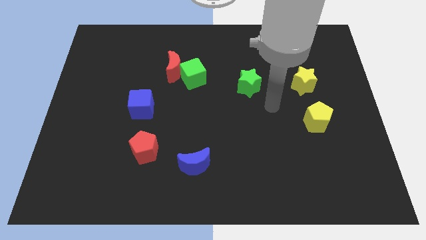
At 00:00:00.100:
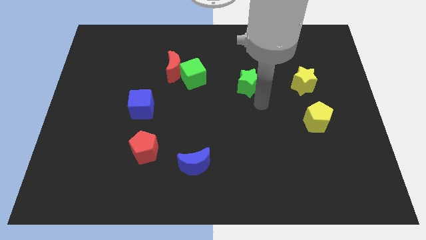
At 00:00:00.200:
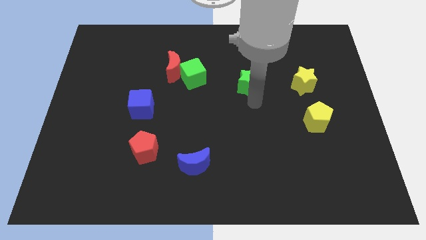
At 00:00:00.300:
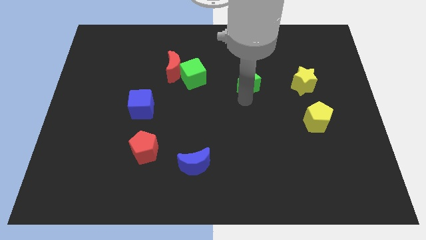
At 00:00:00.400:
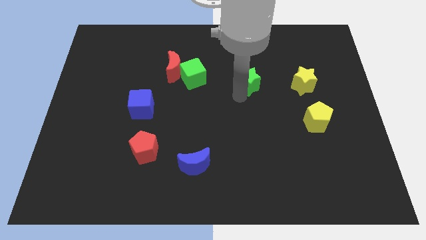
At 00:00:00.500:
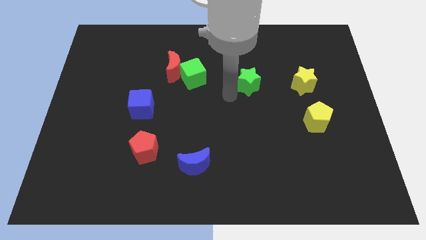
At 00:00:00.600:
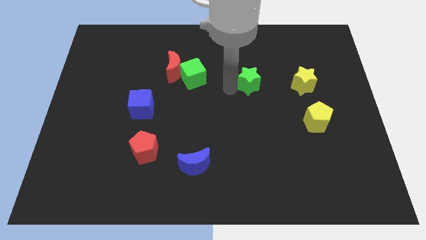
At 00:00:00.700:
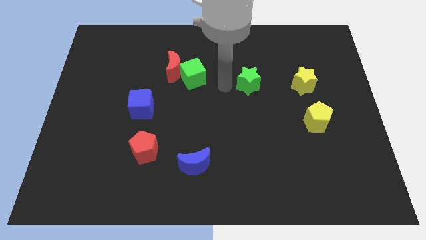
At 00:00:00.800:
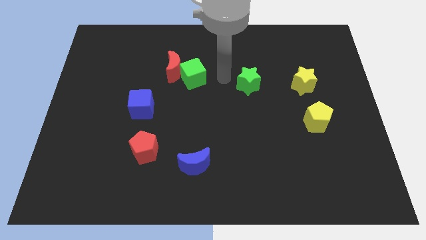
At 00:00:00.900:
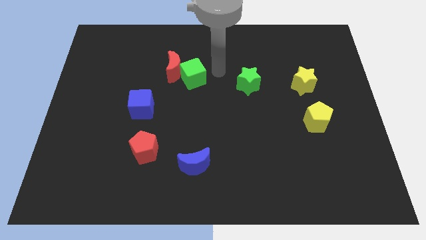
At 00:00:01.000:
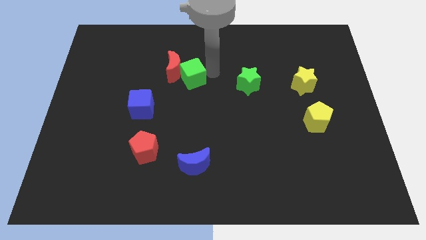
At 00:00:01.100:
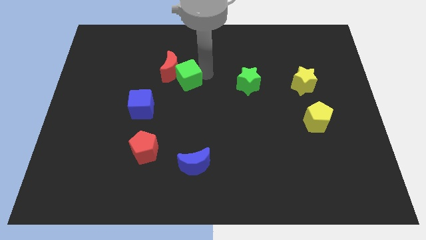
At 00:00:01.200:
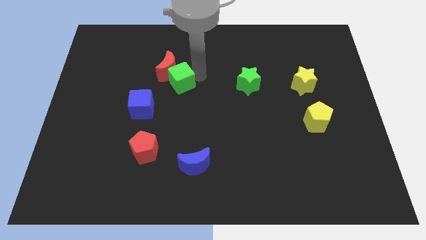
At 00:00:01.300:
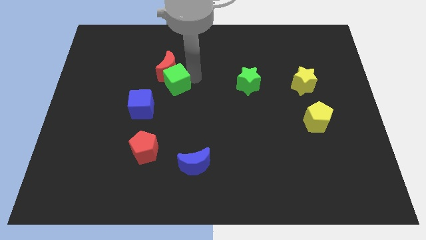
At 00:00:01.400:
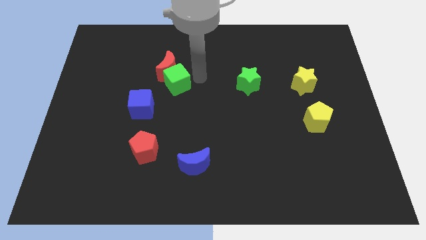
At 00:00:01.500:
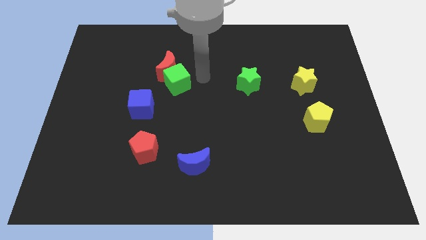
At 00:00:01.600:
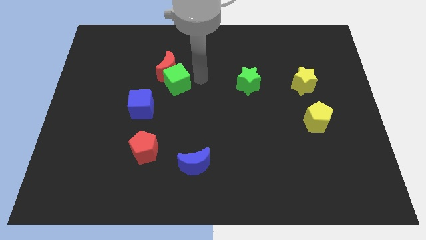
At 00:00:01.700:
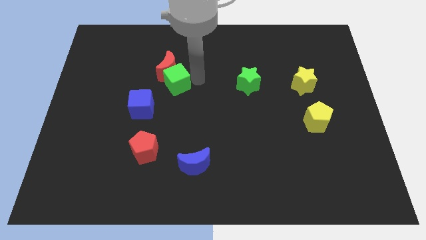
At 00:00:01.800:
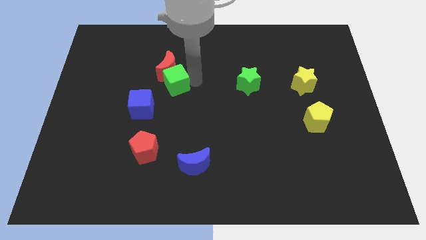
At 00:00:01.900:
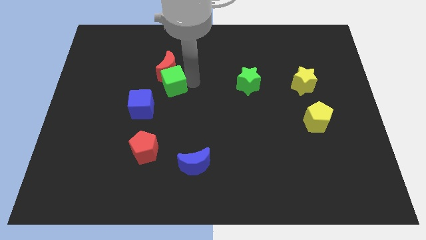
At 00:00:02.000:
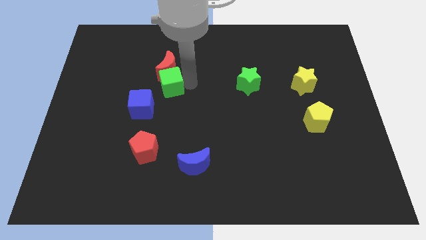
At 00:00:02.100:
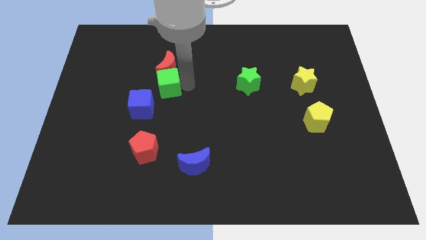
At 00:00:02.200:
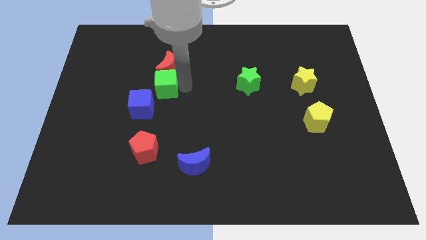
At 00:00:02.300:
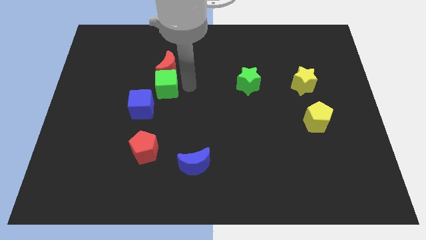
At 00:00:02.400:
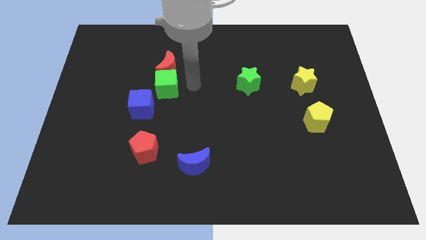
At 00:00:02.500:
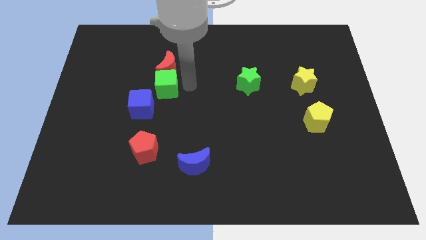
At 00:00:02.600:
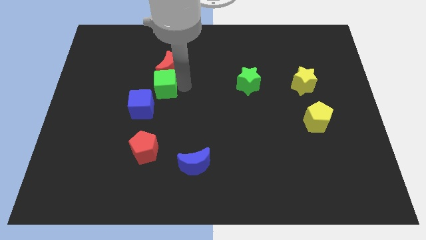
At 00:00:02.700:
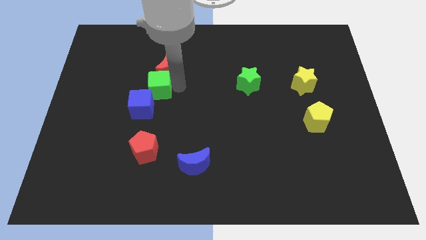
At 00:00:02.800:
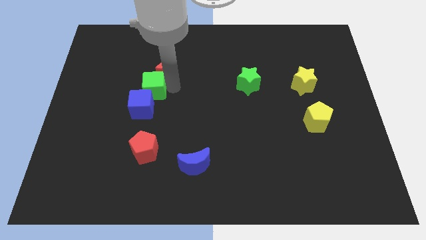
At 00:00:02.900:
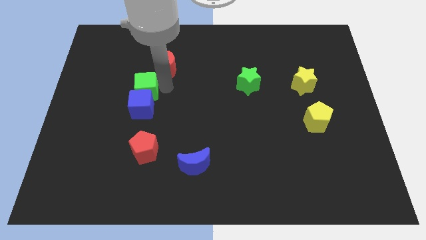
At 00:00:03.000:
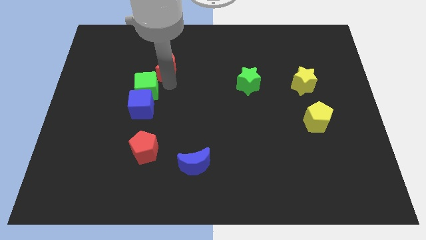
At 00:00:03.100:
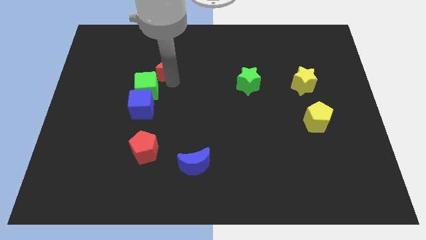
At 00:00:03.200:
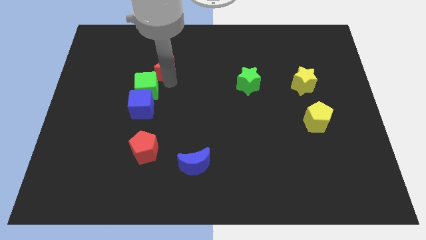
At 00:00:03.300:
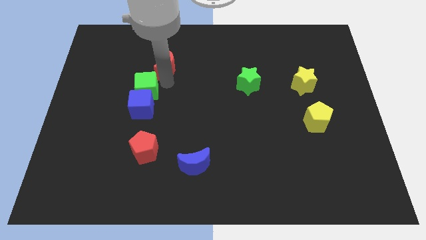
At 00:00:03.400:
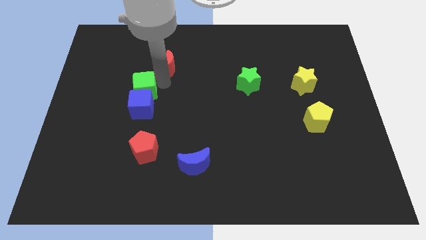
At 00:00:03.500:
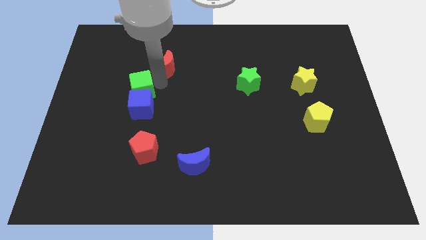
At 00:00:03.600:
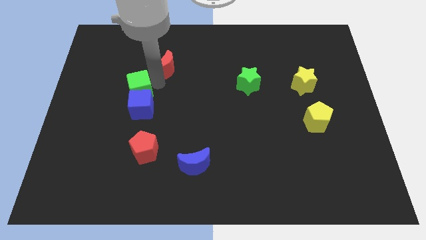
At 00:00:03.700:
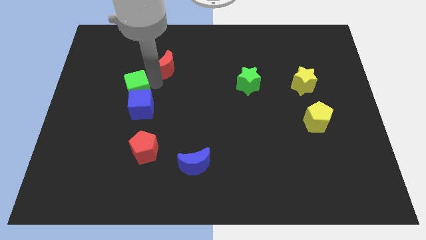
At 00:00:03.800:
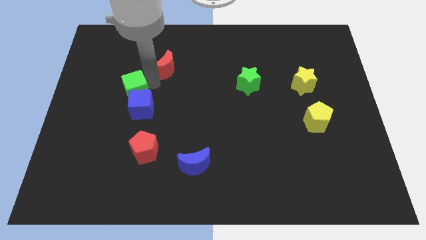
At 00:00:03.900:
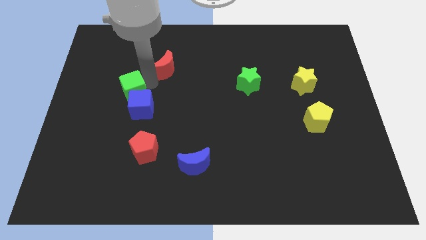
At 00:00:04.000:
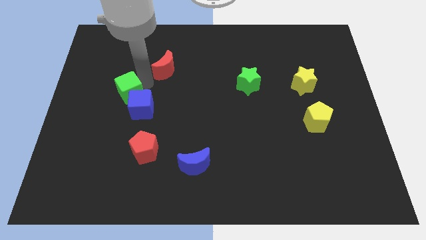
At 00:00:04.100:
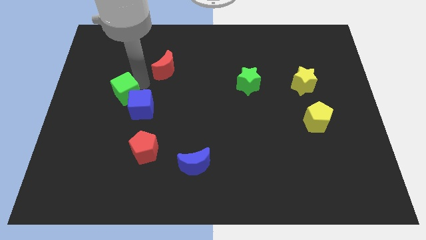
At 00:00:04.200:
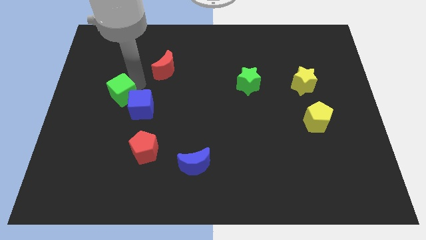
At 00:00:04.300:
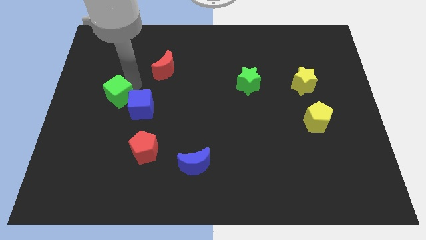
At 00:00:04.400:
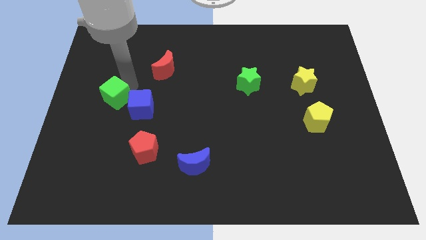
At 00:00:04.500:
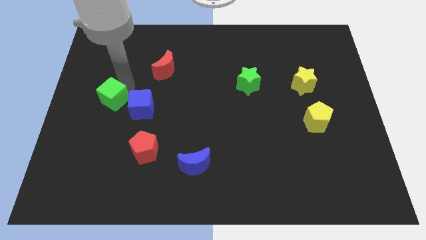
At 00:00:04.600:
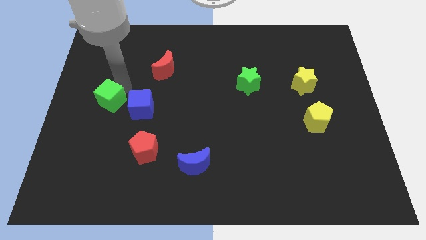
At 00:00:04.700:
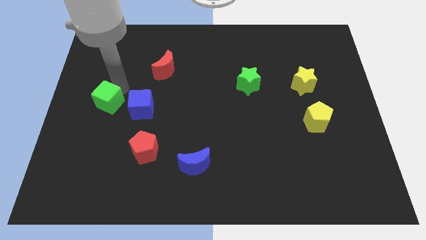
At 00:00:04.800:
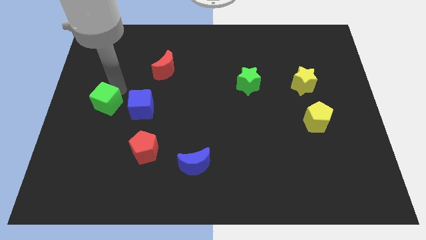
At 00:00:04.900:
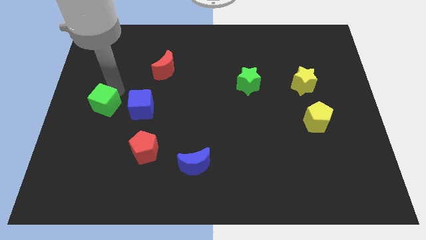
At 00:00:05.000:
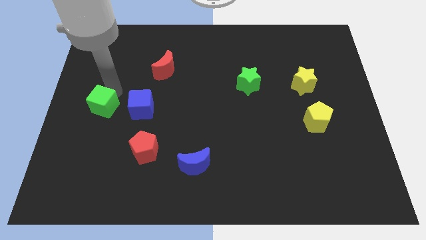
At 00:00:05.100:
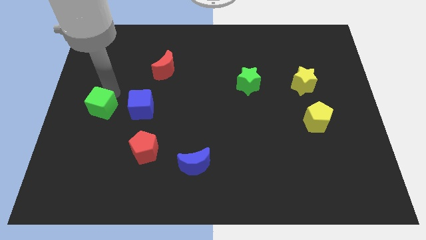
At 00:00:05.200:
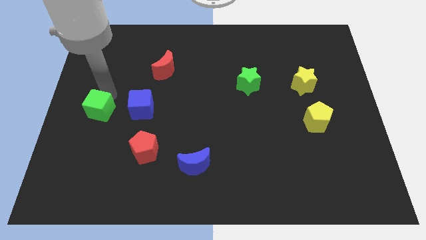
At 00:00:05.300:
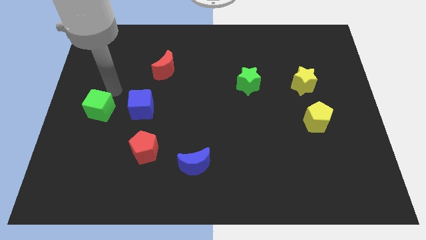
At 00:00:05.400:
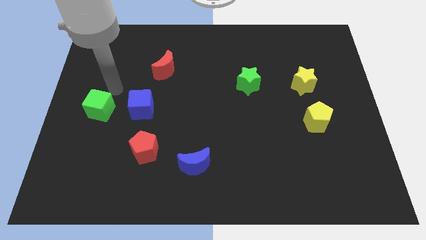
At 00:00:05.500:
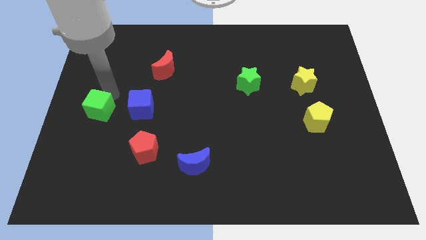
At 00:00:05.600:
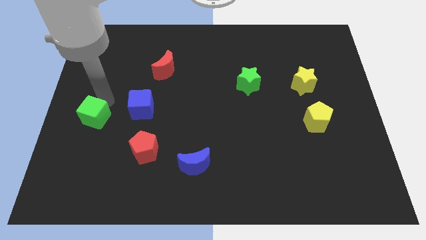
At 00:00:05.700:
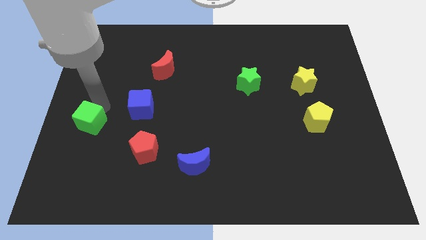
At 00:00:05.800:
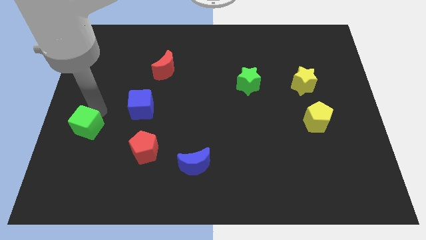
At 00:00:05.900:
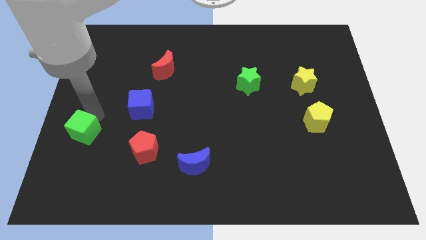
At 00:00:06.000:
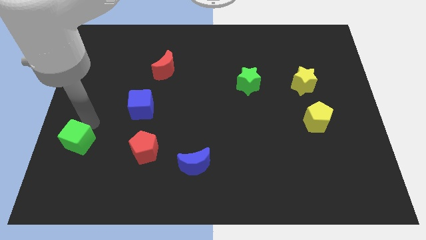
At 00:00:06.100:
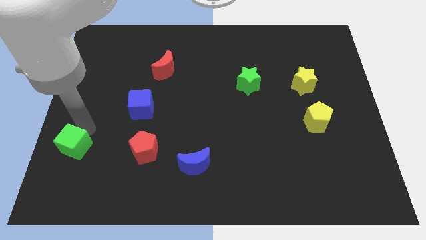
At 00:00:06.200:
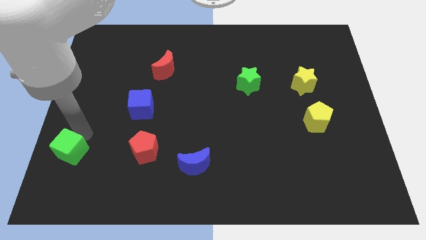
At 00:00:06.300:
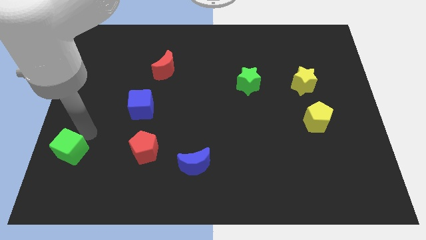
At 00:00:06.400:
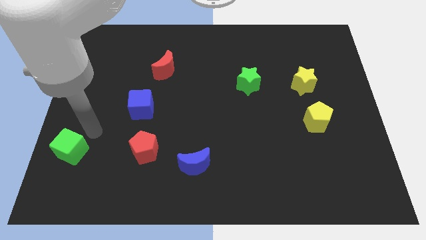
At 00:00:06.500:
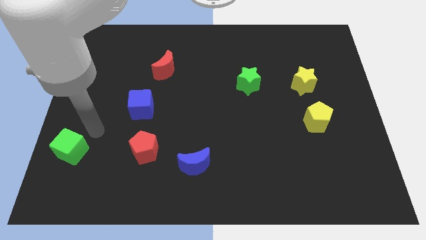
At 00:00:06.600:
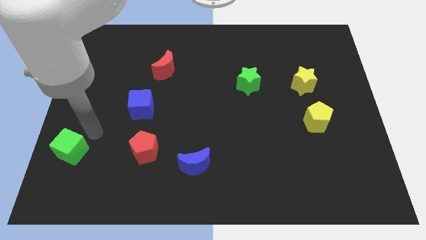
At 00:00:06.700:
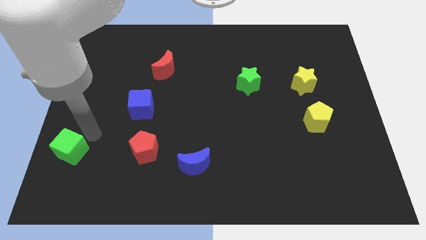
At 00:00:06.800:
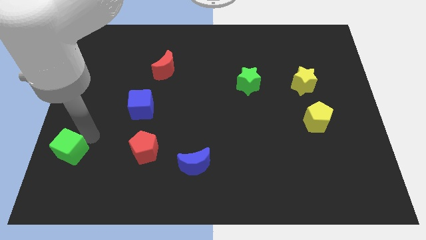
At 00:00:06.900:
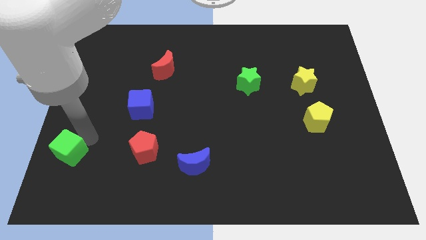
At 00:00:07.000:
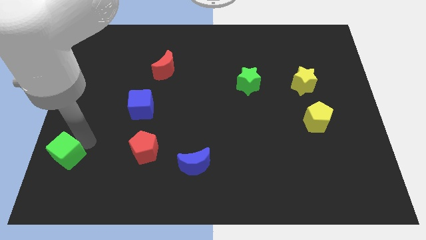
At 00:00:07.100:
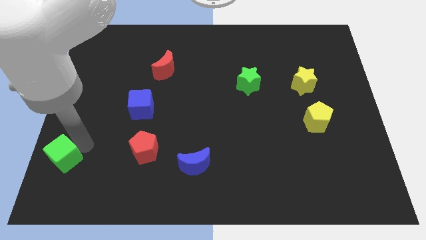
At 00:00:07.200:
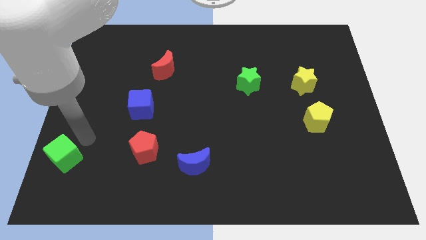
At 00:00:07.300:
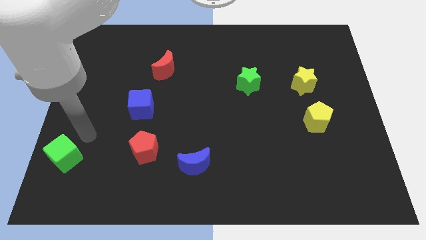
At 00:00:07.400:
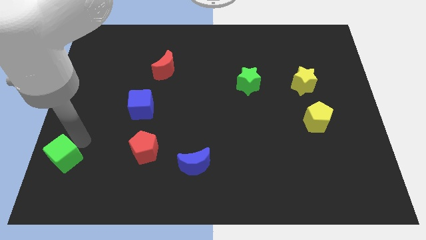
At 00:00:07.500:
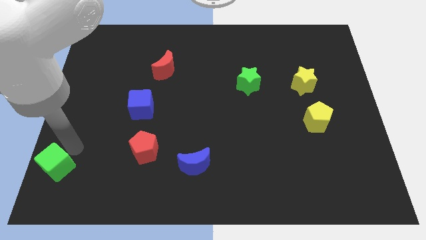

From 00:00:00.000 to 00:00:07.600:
put the green cube to the bottom left of the board
